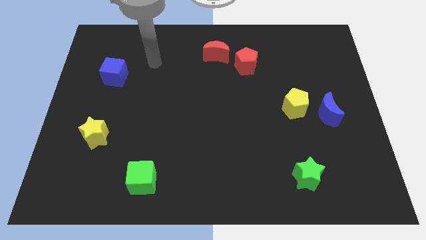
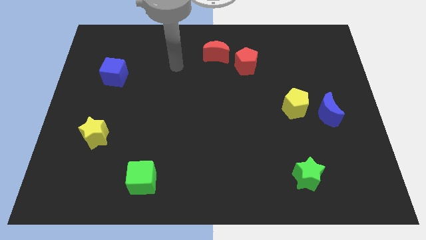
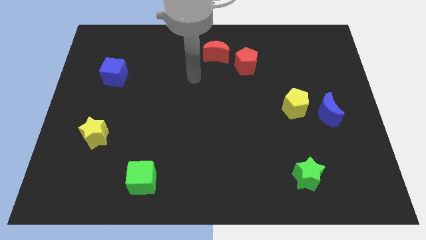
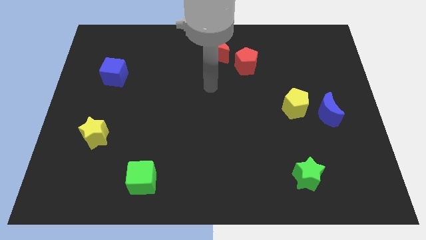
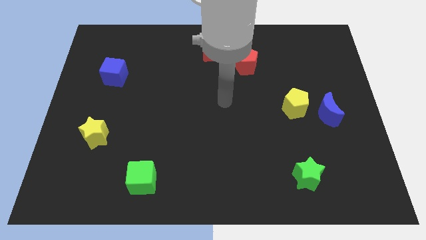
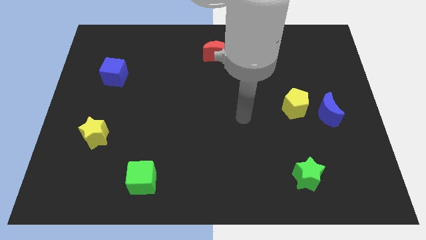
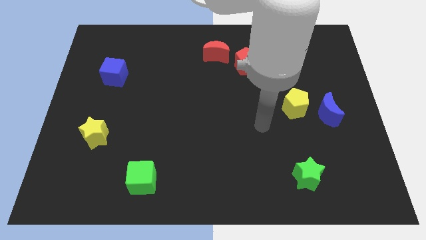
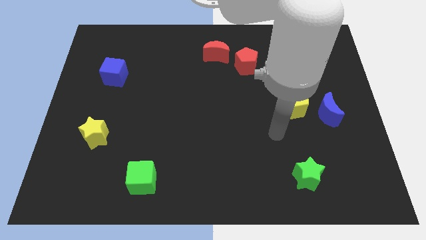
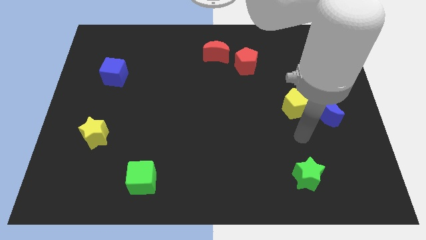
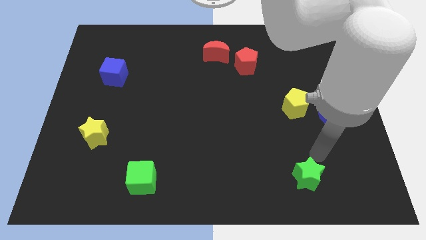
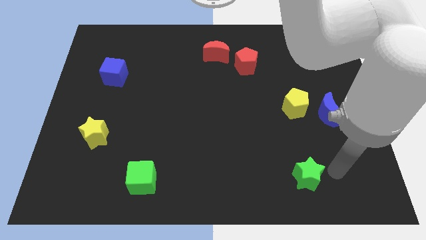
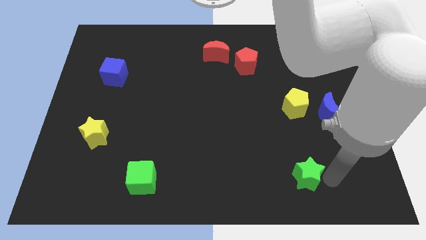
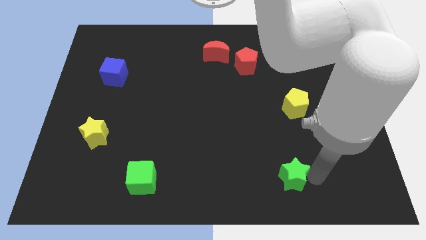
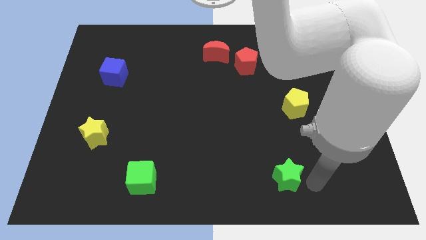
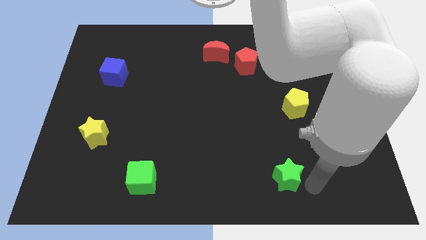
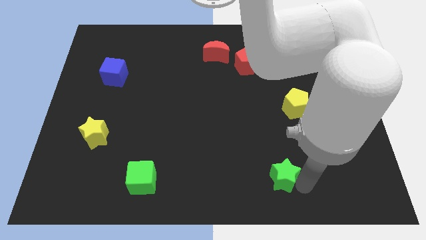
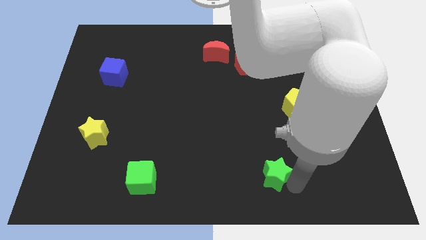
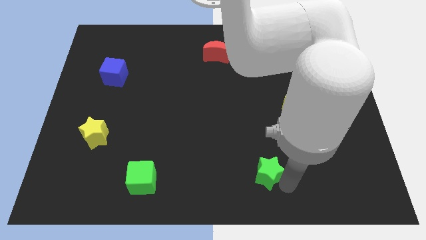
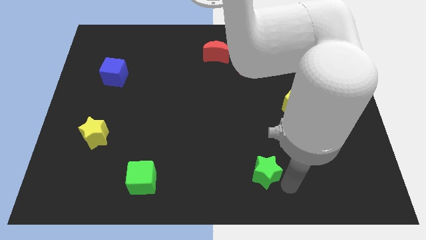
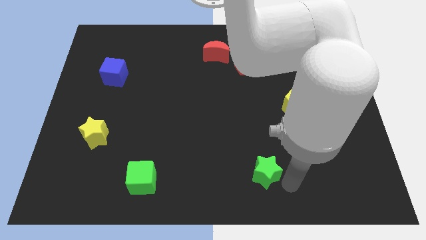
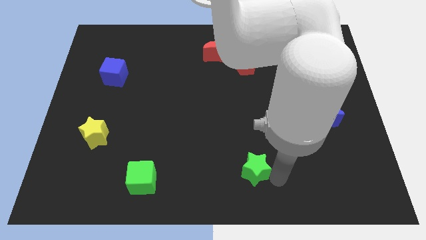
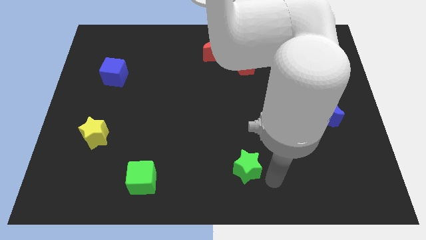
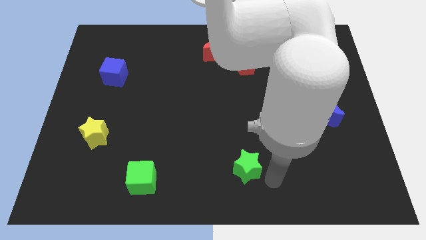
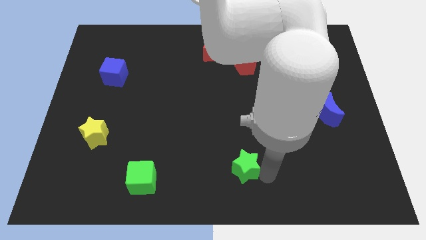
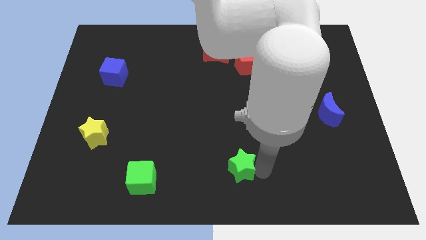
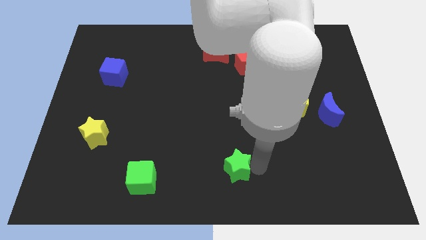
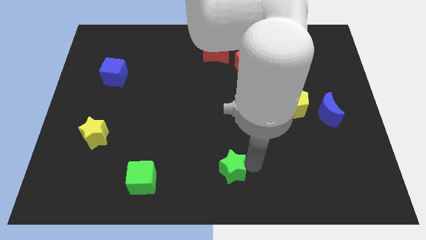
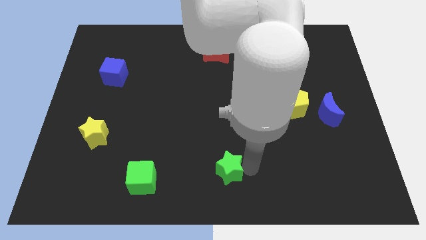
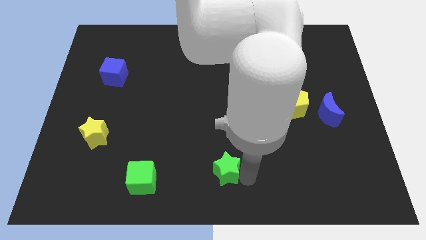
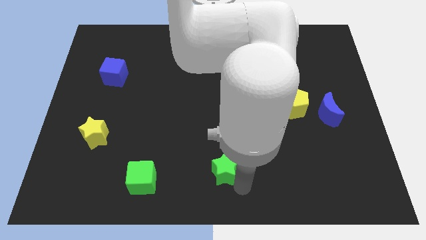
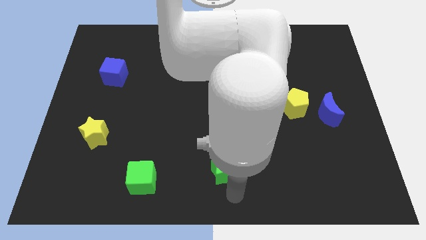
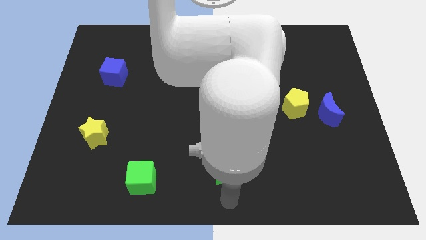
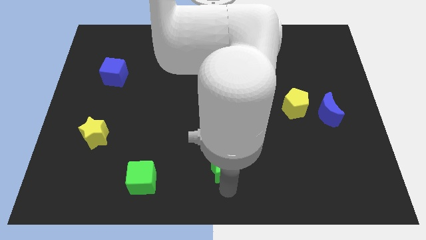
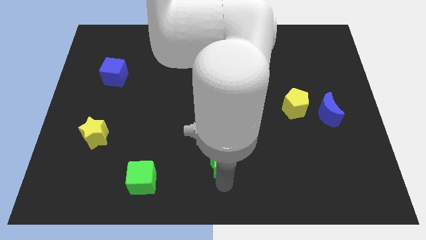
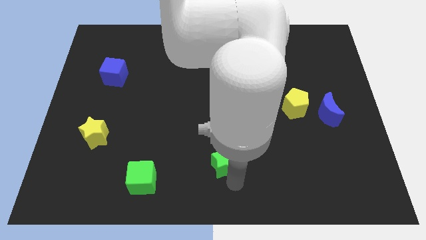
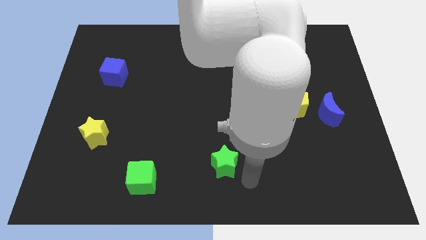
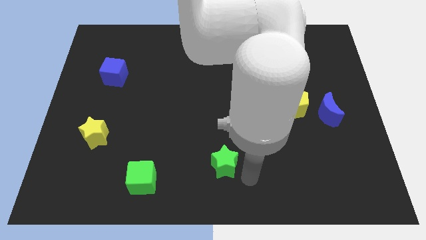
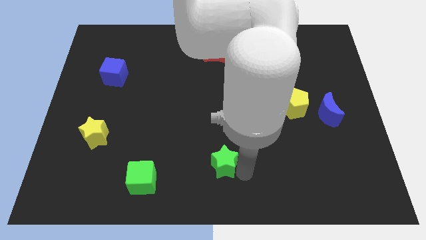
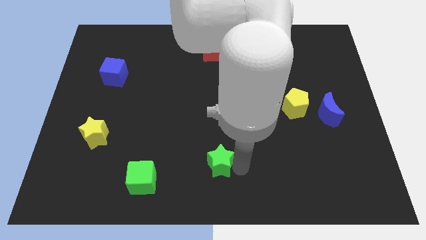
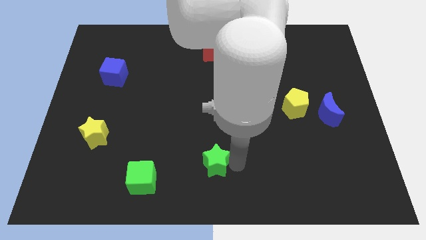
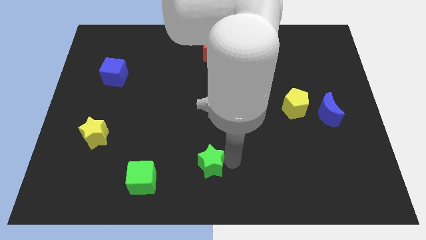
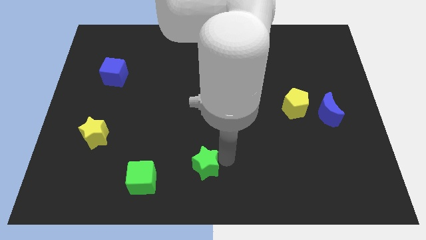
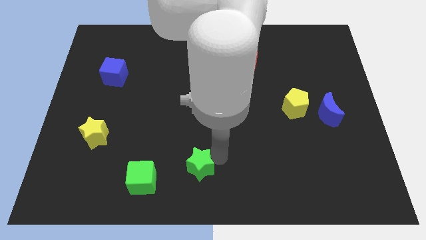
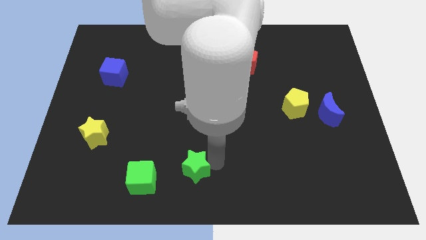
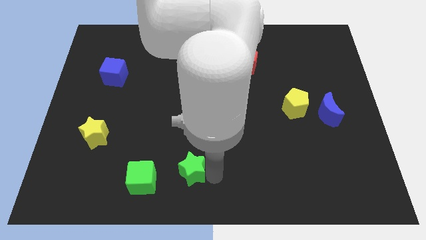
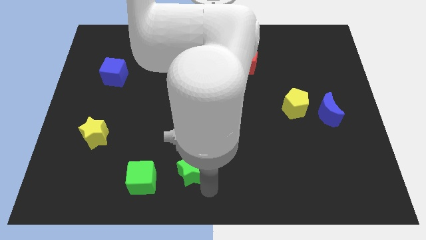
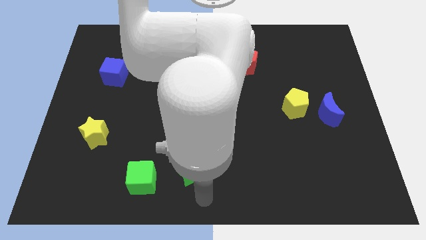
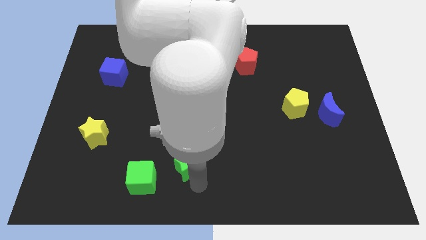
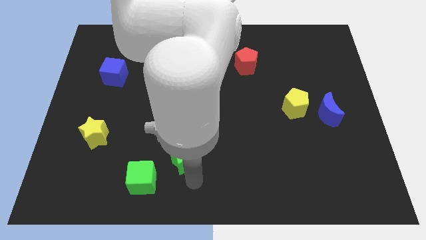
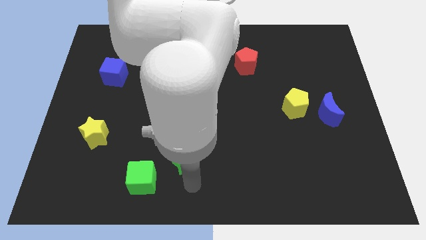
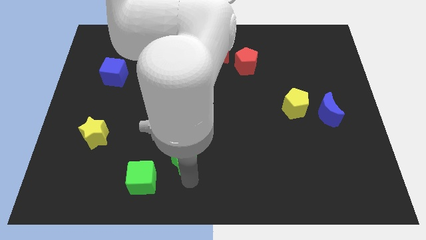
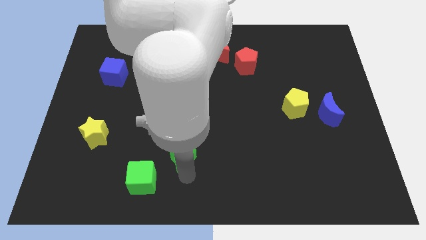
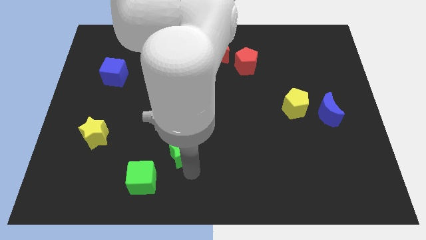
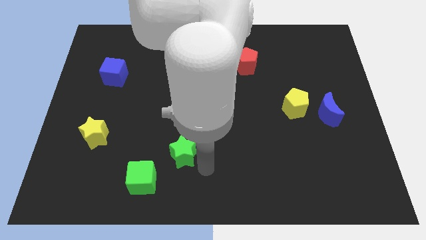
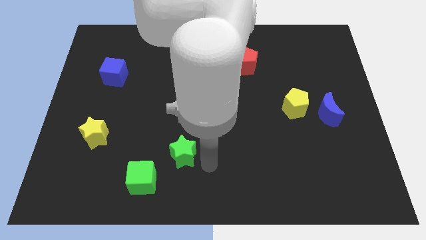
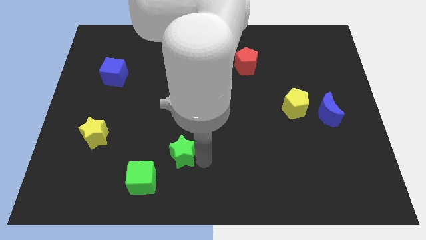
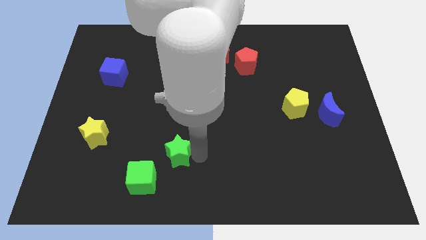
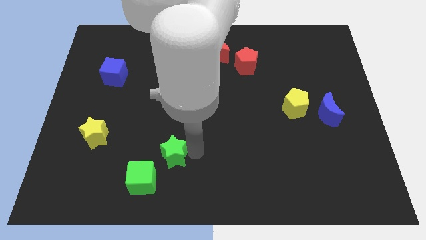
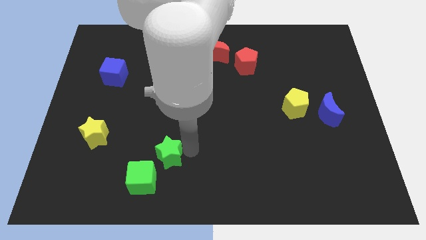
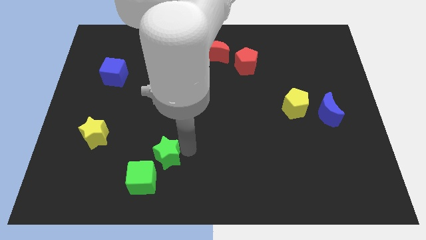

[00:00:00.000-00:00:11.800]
move the green star above the green cube

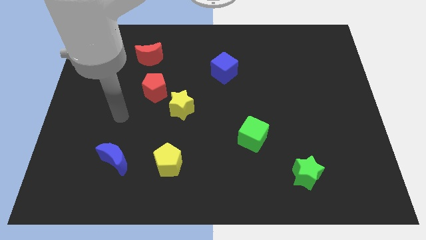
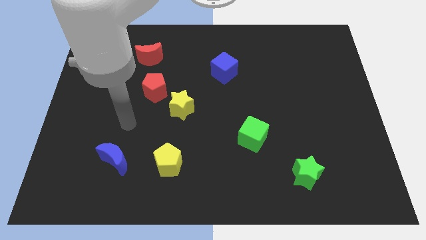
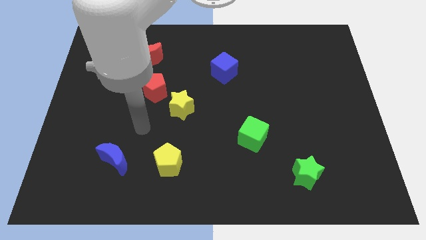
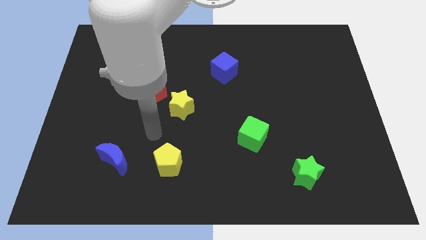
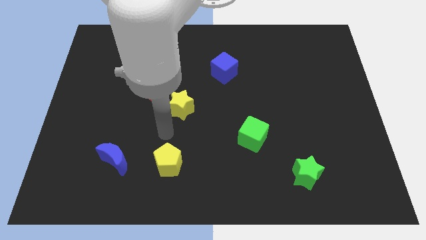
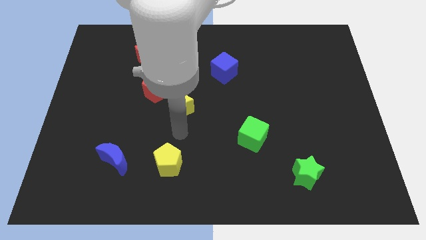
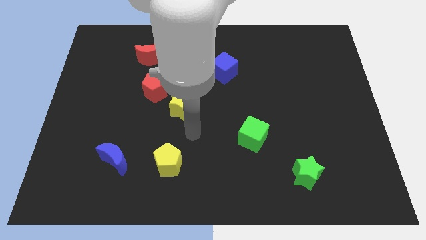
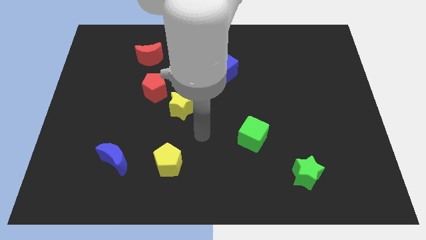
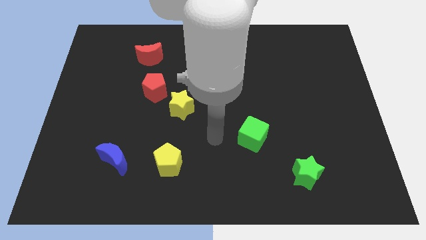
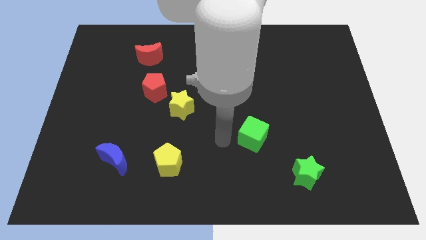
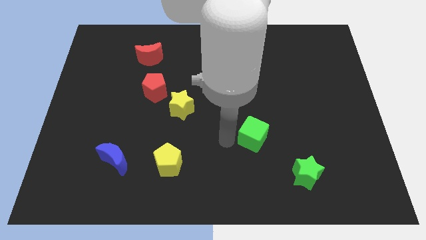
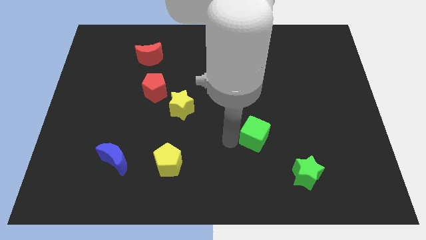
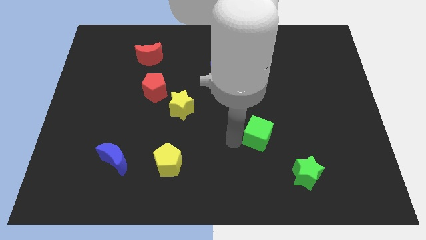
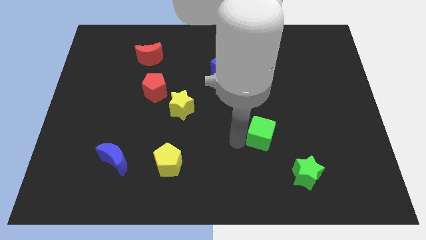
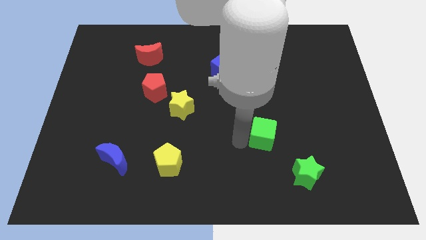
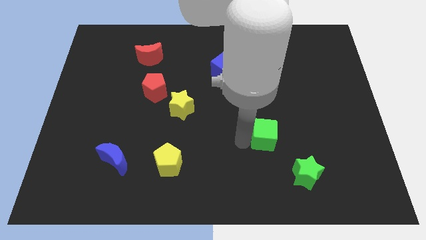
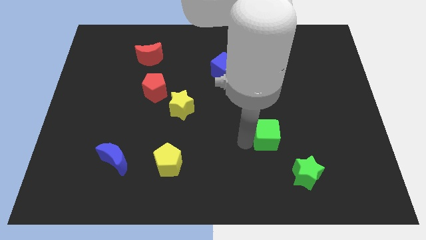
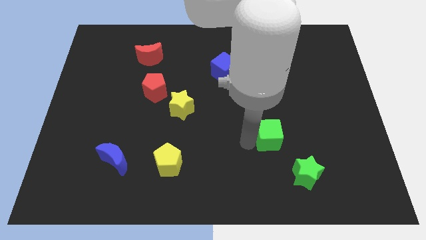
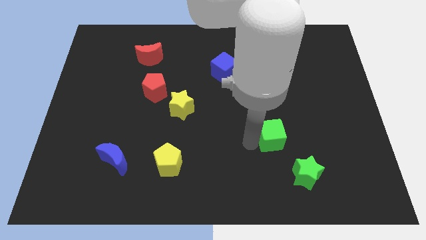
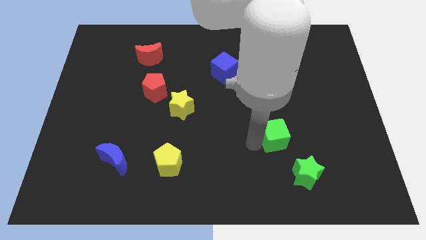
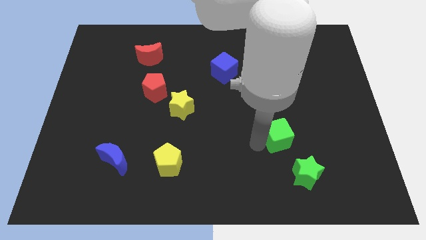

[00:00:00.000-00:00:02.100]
move the green cube to the top side of the green star

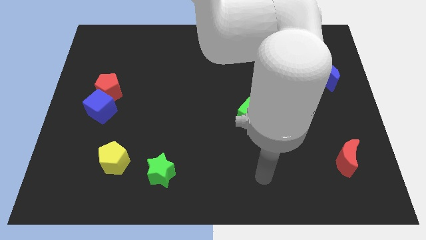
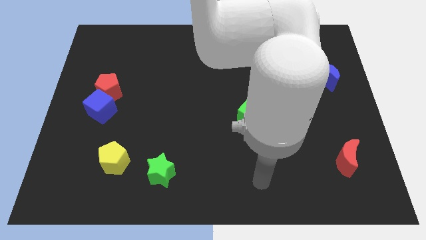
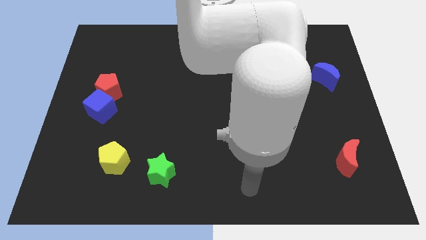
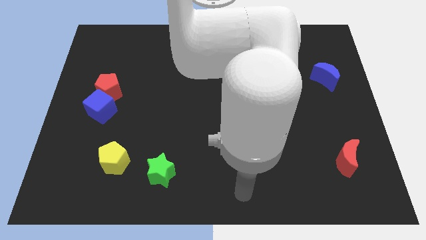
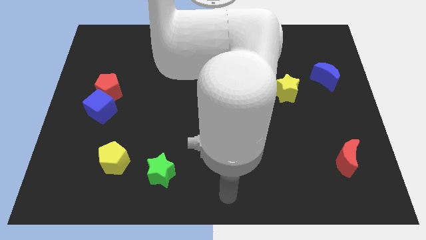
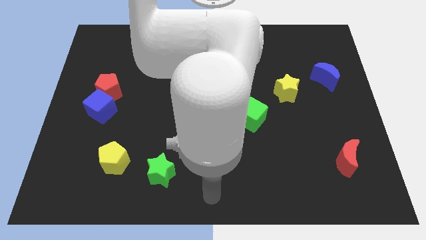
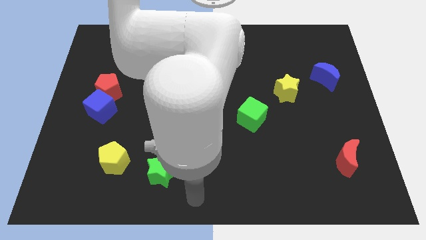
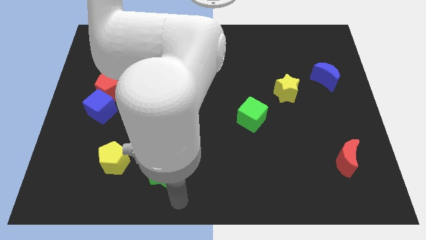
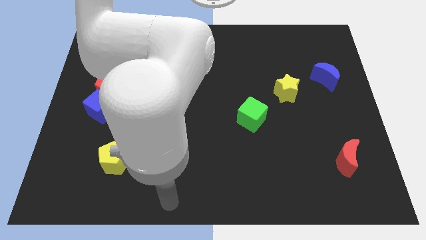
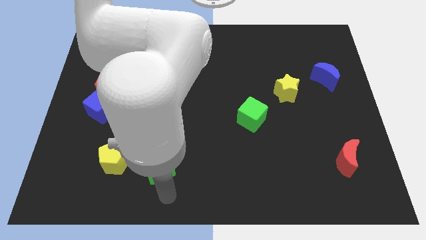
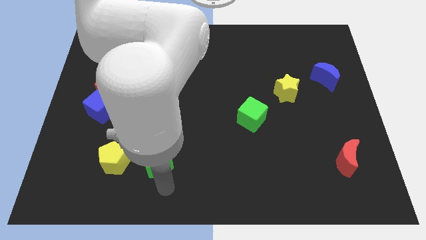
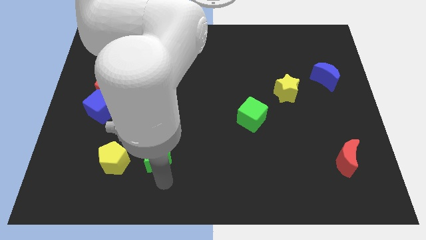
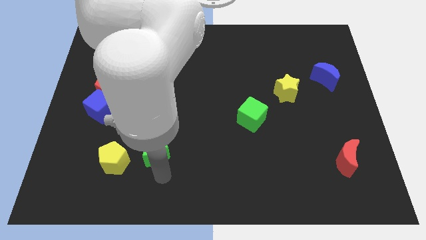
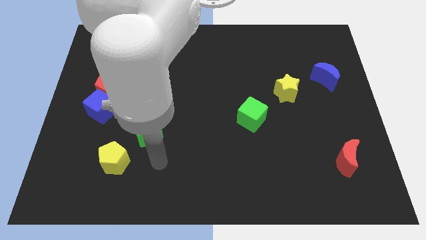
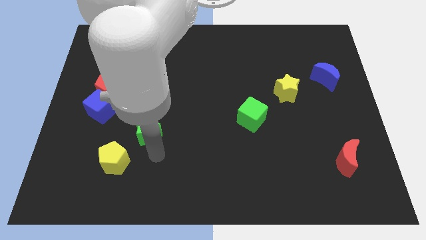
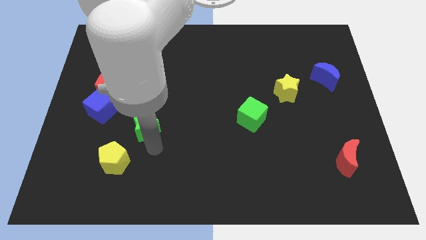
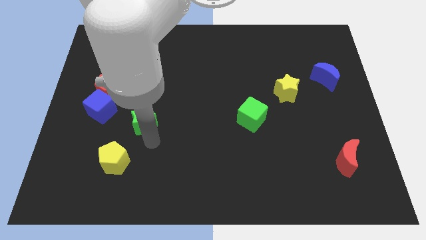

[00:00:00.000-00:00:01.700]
put the green star to the right of the blue cube
